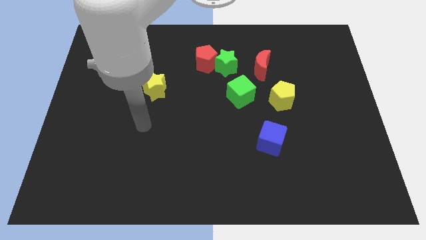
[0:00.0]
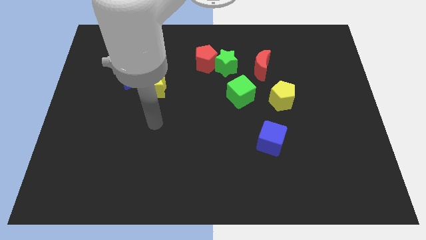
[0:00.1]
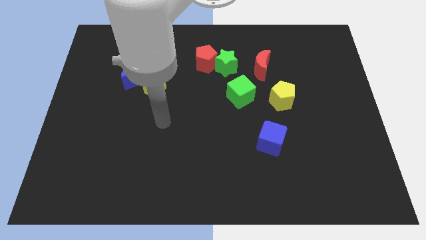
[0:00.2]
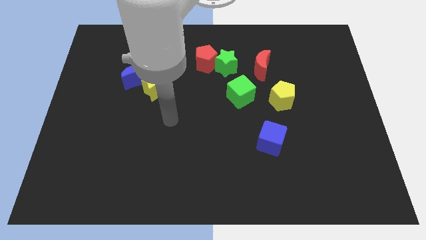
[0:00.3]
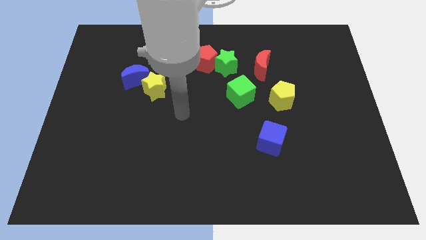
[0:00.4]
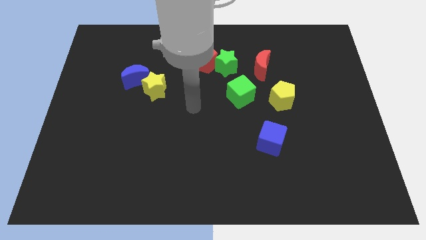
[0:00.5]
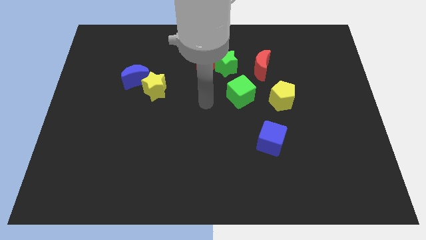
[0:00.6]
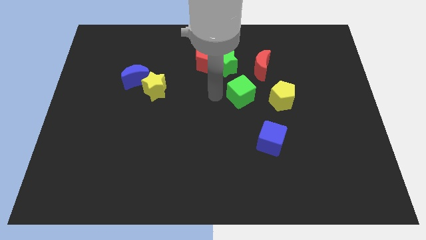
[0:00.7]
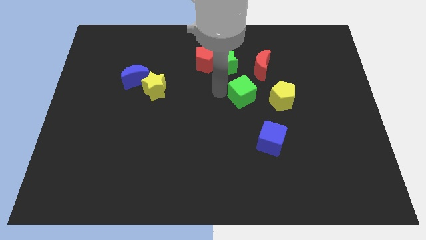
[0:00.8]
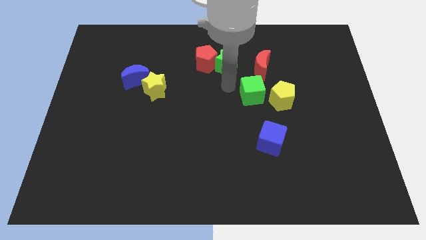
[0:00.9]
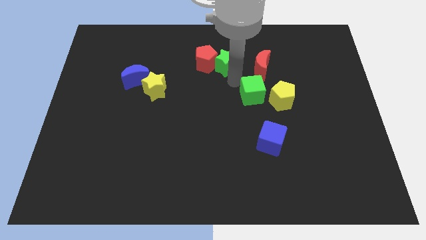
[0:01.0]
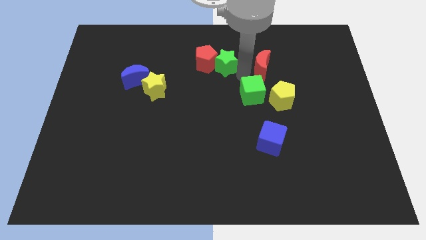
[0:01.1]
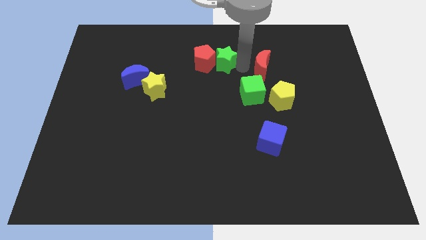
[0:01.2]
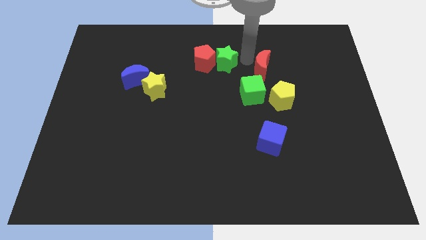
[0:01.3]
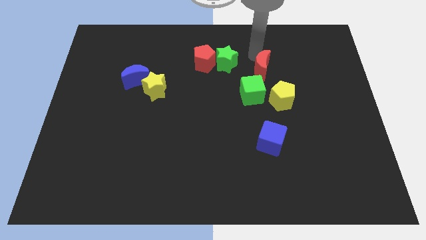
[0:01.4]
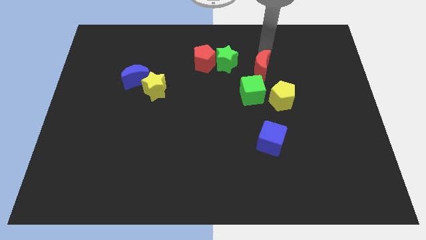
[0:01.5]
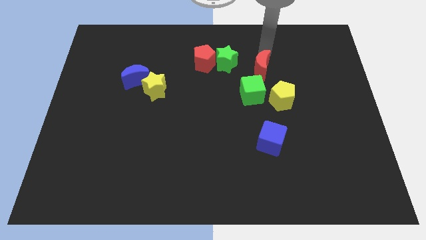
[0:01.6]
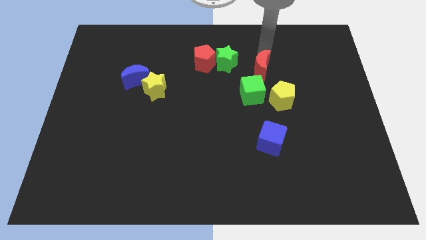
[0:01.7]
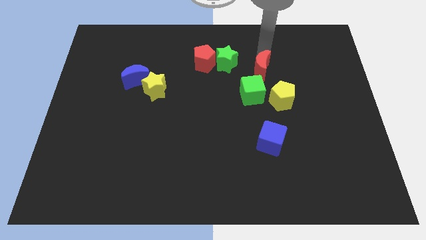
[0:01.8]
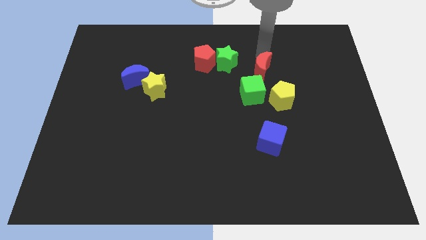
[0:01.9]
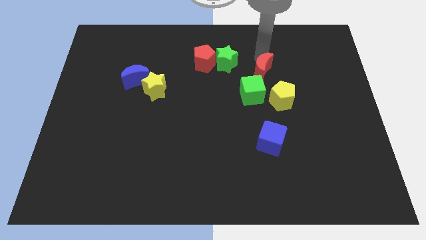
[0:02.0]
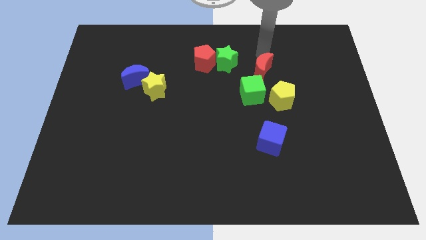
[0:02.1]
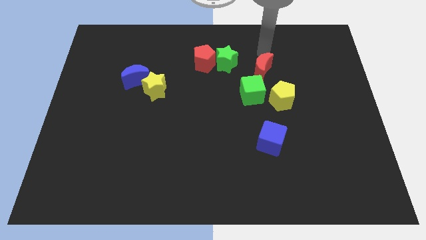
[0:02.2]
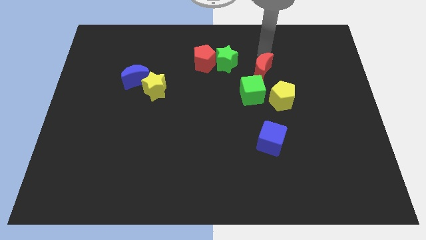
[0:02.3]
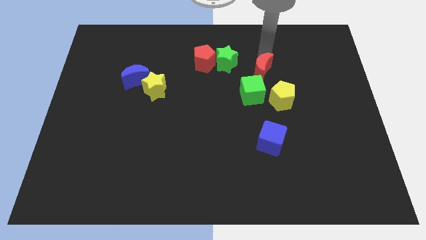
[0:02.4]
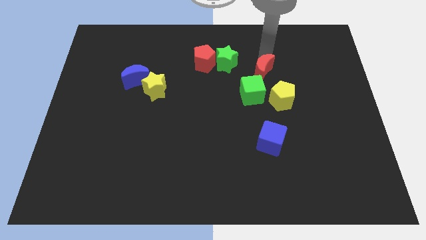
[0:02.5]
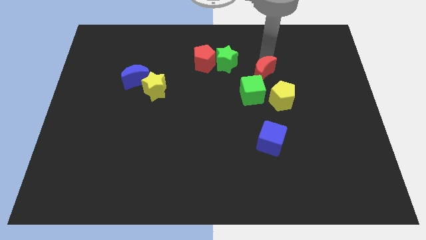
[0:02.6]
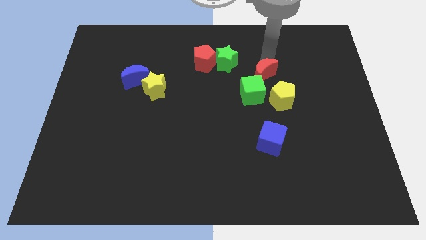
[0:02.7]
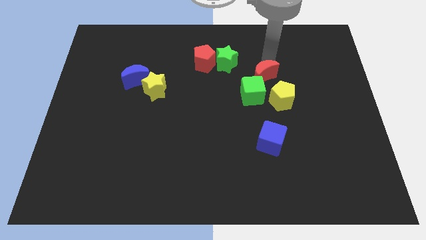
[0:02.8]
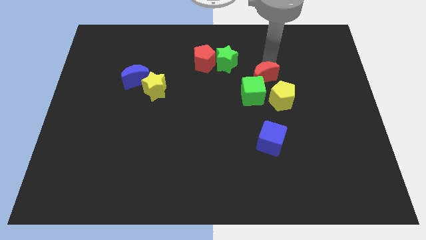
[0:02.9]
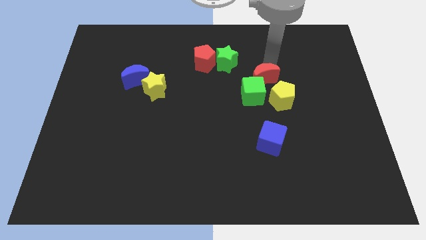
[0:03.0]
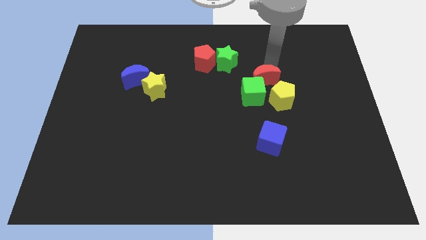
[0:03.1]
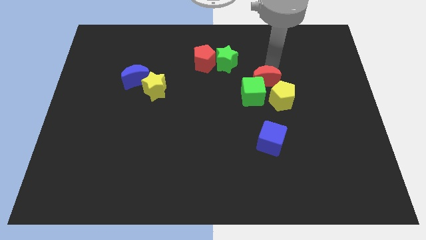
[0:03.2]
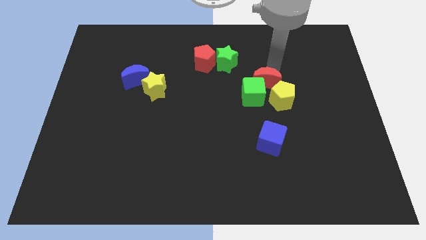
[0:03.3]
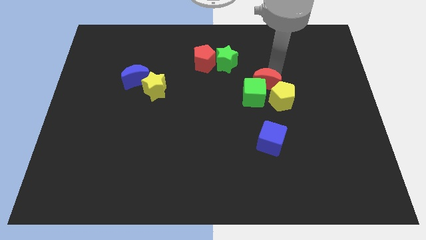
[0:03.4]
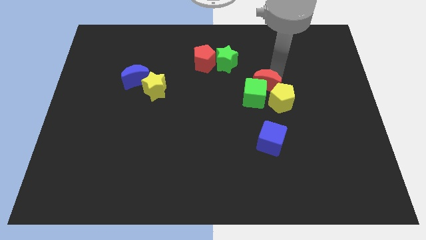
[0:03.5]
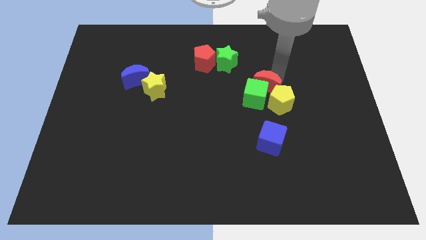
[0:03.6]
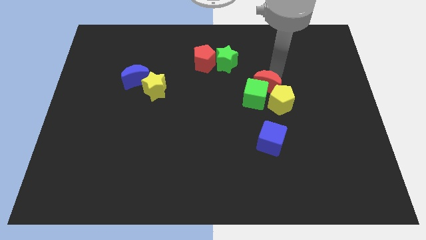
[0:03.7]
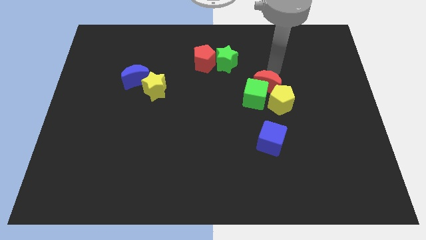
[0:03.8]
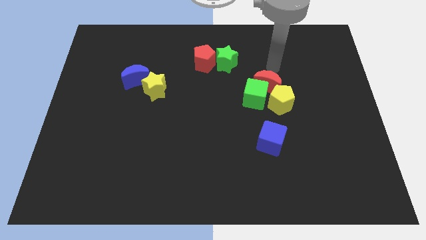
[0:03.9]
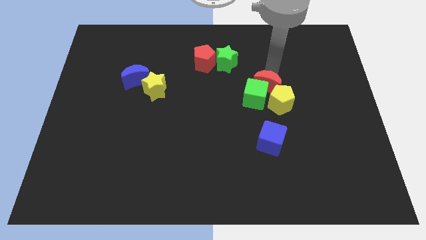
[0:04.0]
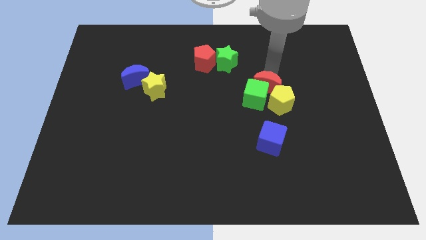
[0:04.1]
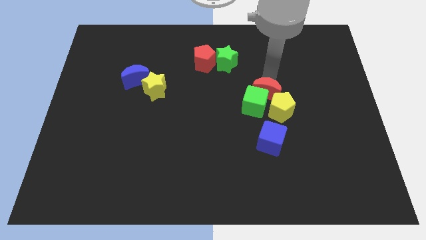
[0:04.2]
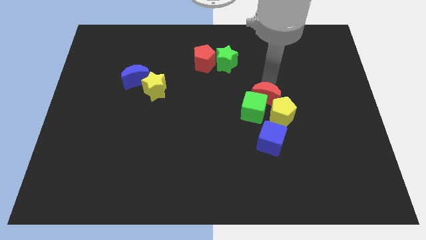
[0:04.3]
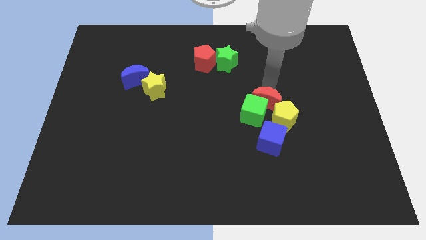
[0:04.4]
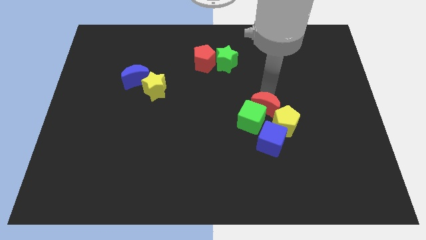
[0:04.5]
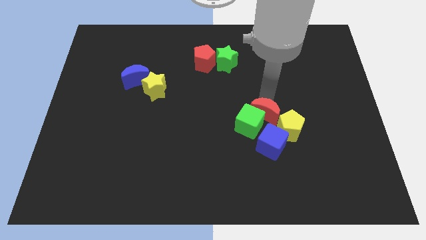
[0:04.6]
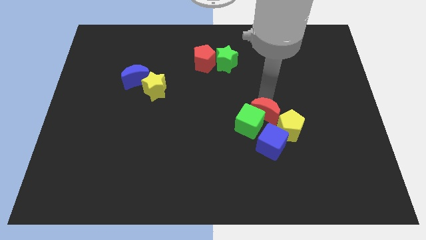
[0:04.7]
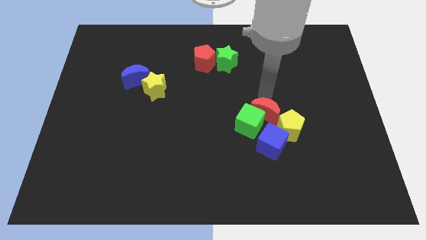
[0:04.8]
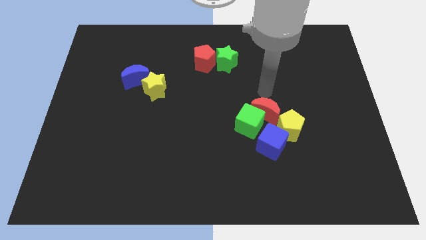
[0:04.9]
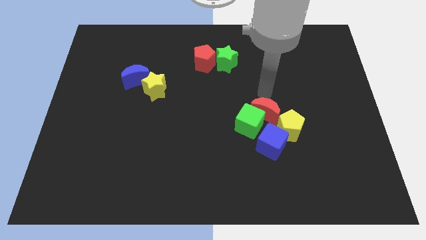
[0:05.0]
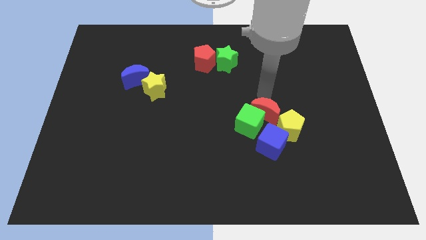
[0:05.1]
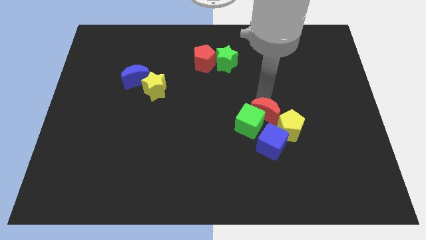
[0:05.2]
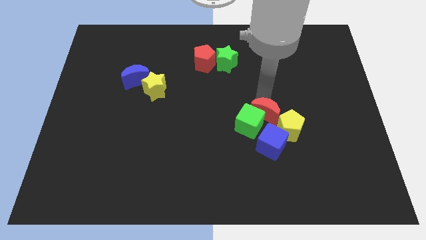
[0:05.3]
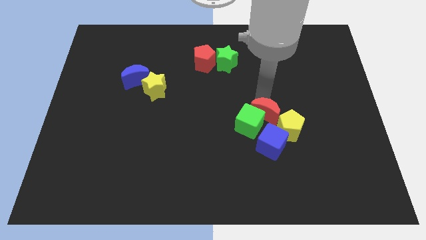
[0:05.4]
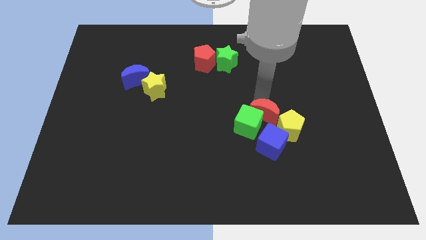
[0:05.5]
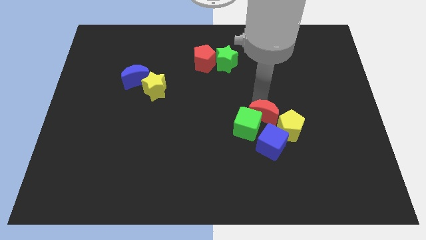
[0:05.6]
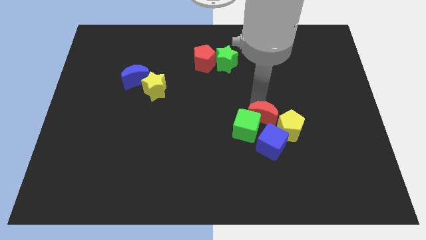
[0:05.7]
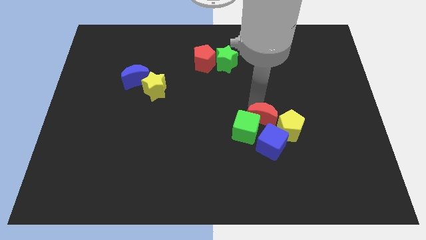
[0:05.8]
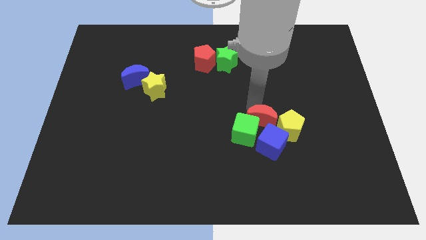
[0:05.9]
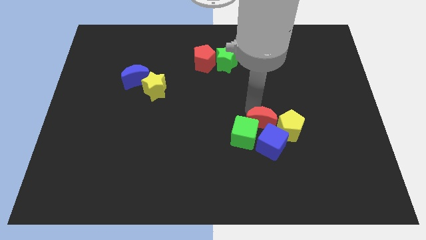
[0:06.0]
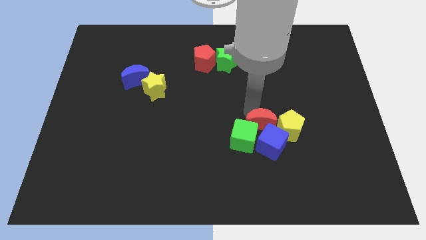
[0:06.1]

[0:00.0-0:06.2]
put the red moon towards the blue cube

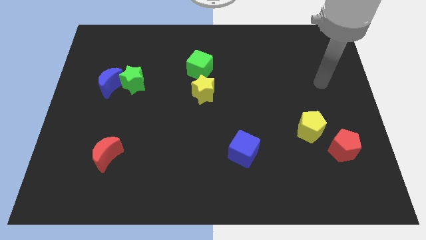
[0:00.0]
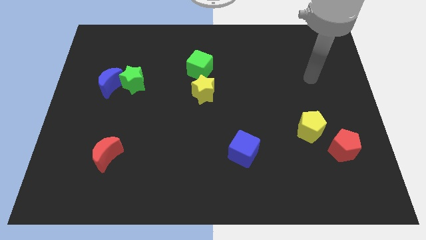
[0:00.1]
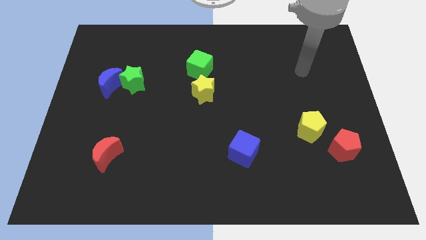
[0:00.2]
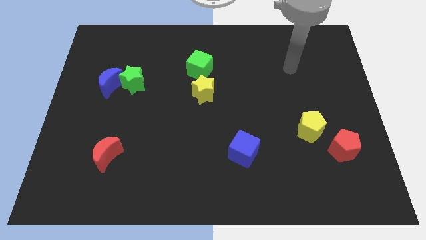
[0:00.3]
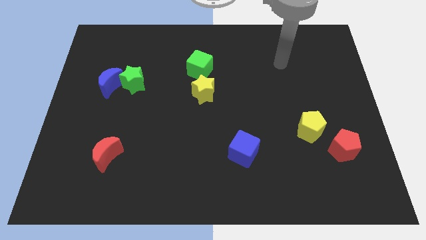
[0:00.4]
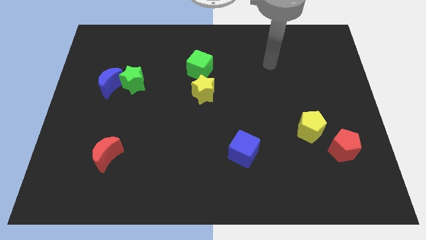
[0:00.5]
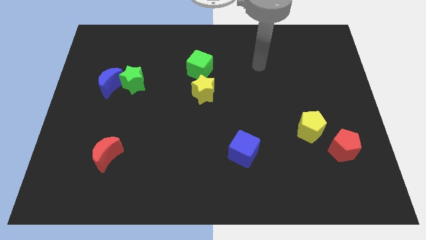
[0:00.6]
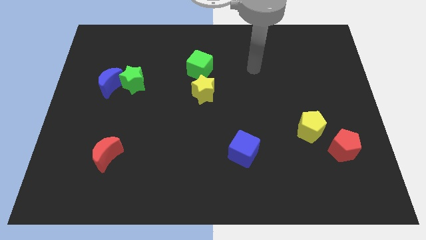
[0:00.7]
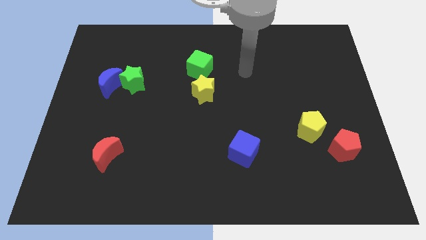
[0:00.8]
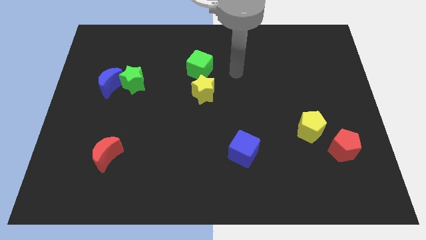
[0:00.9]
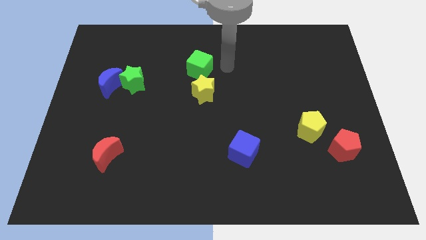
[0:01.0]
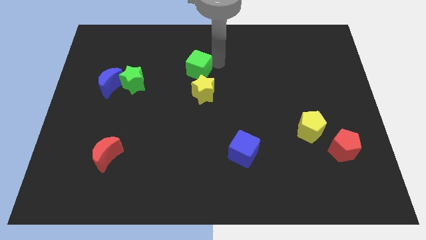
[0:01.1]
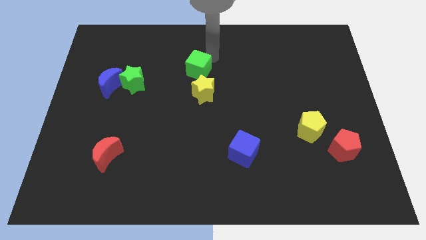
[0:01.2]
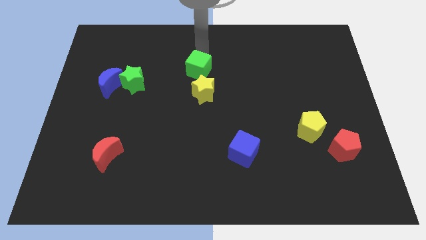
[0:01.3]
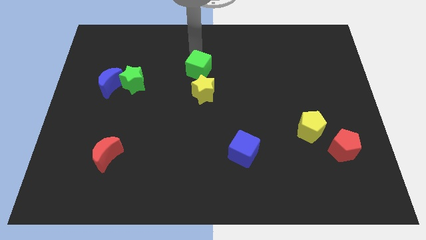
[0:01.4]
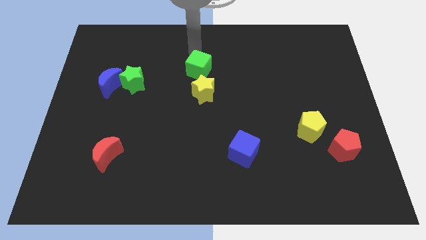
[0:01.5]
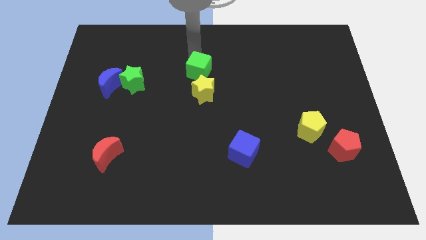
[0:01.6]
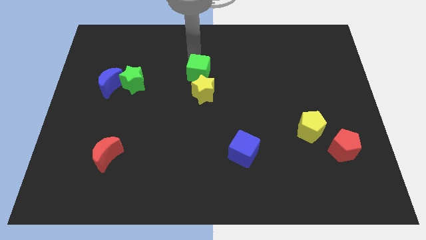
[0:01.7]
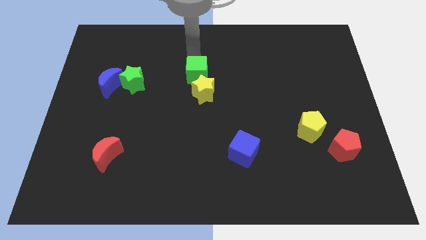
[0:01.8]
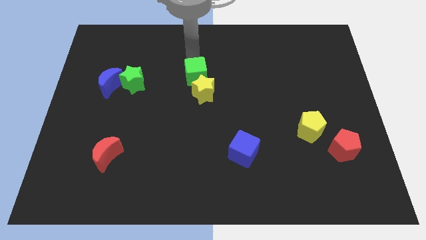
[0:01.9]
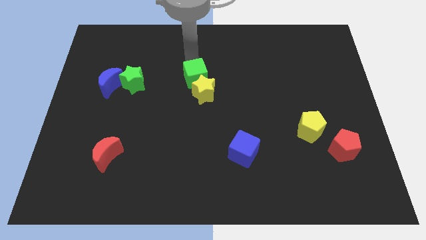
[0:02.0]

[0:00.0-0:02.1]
move the green cube next to the yellow star

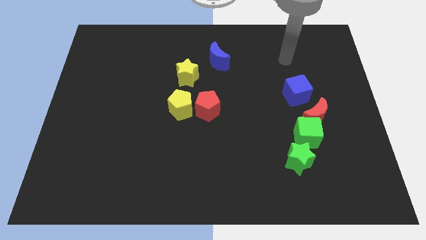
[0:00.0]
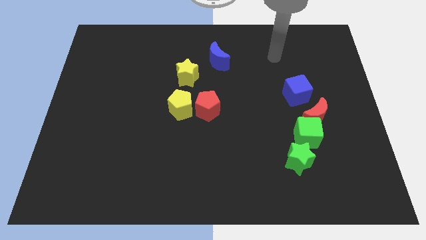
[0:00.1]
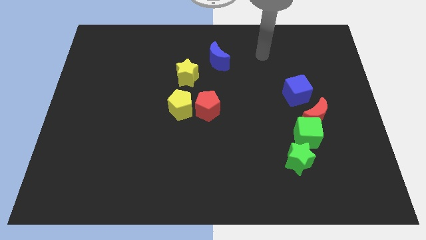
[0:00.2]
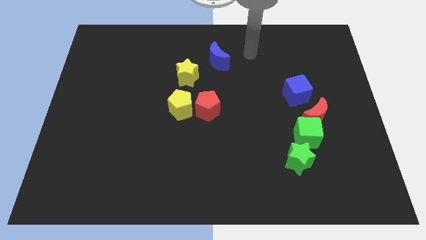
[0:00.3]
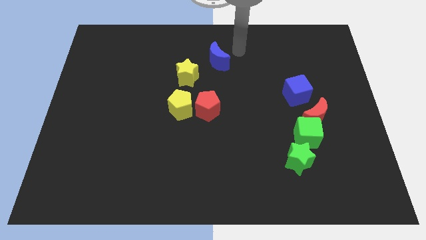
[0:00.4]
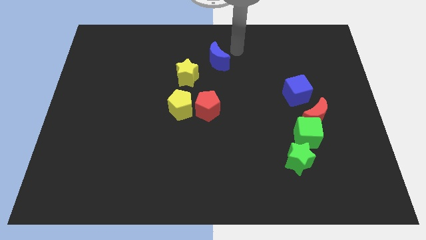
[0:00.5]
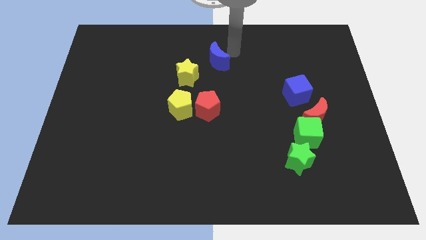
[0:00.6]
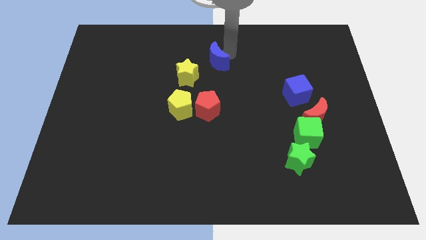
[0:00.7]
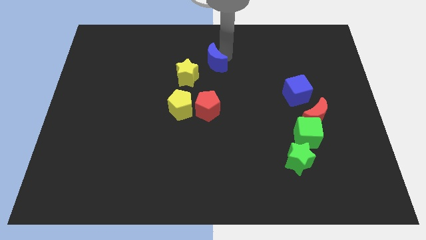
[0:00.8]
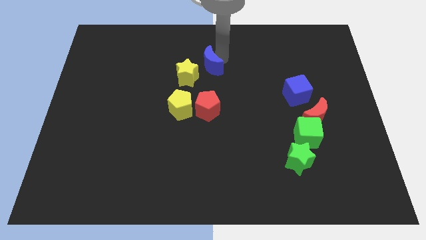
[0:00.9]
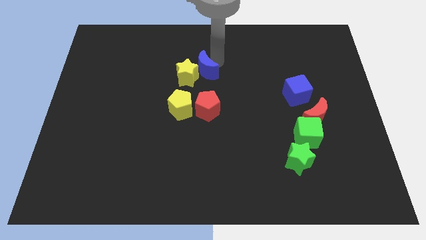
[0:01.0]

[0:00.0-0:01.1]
move the blue moon close to the yellow star
